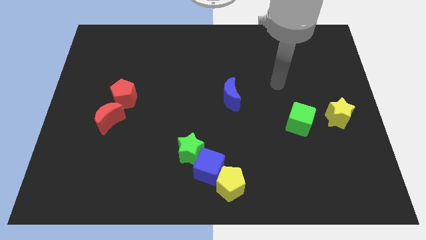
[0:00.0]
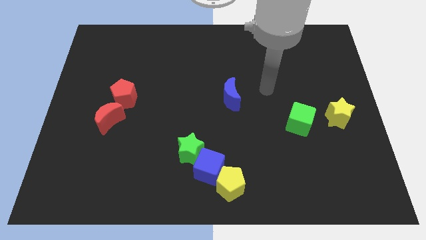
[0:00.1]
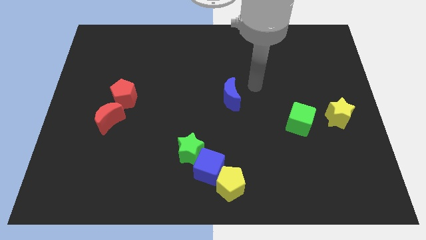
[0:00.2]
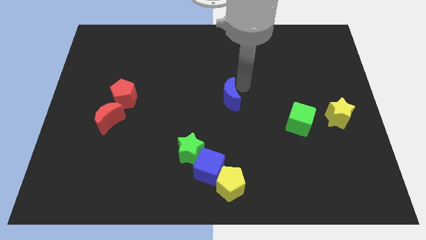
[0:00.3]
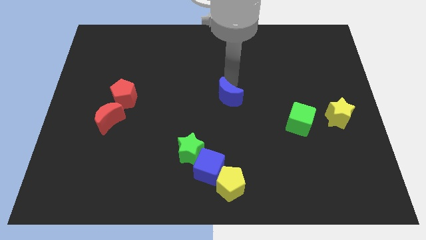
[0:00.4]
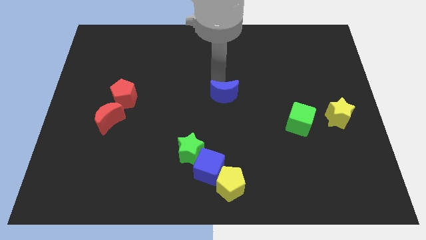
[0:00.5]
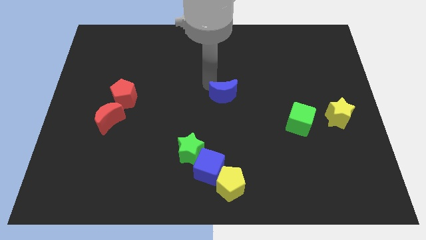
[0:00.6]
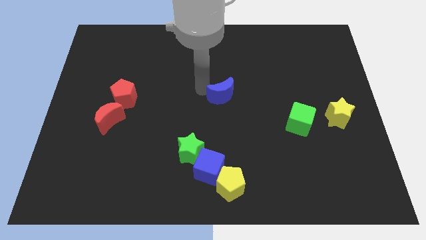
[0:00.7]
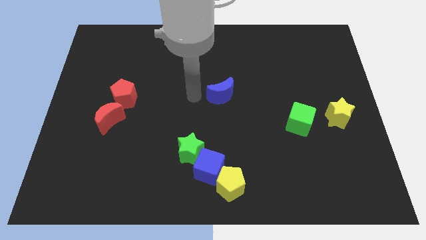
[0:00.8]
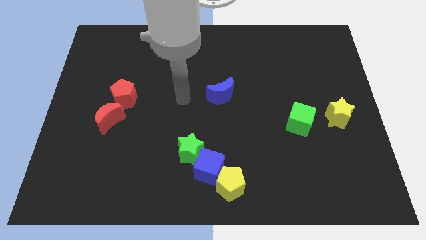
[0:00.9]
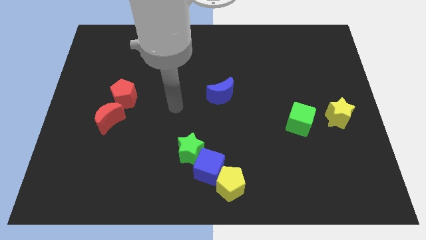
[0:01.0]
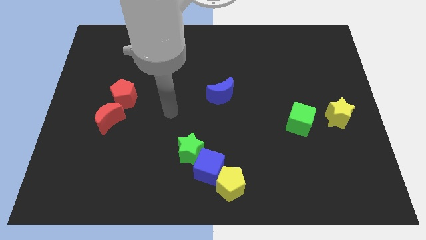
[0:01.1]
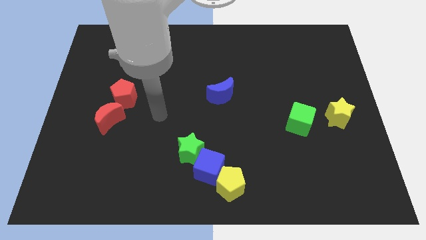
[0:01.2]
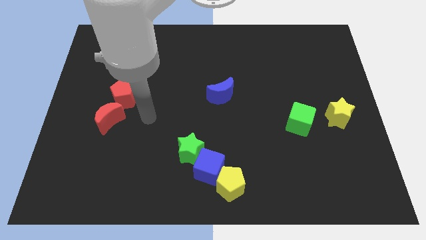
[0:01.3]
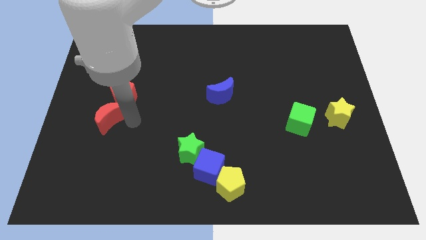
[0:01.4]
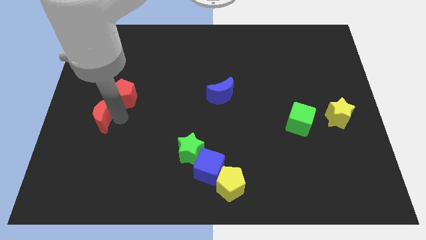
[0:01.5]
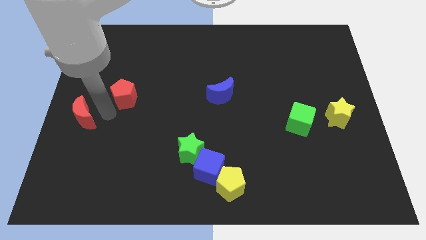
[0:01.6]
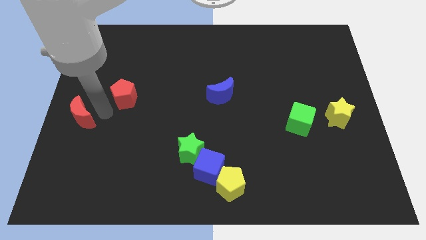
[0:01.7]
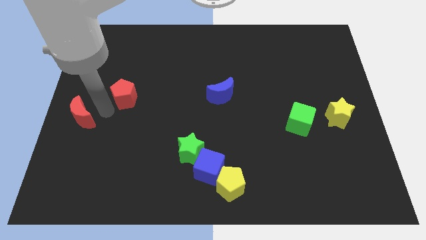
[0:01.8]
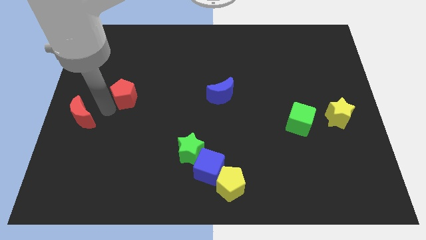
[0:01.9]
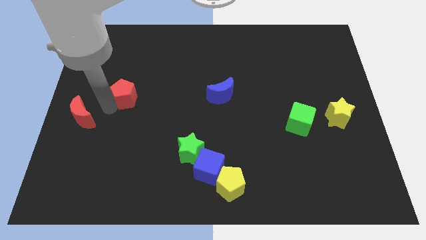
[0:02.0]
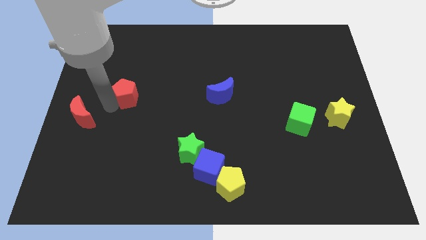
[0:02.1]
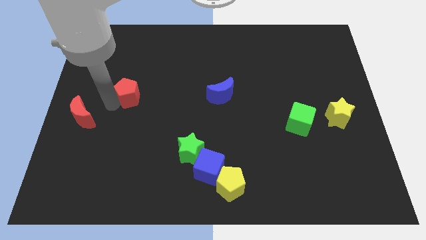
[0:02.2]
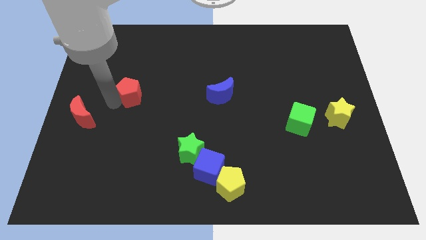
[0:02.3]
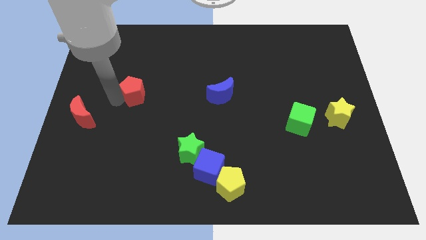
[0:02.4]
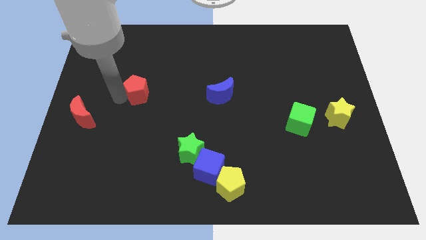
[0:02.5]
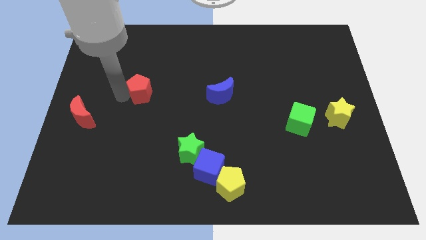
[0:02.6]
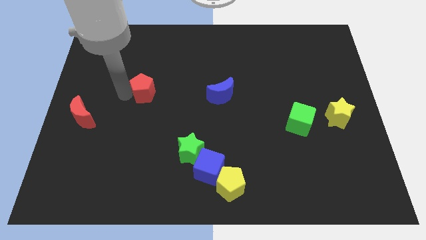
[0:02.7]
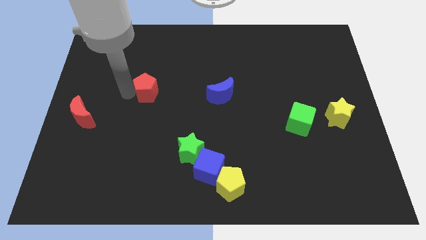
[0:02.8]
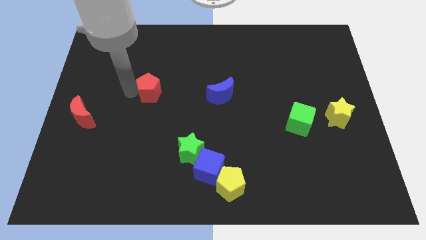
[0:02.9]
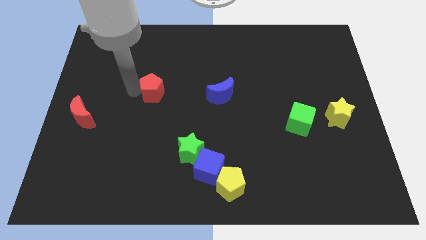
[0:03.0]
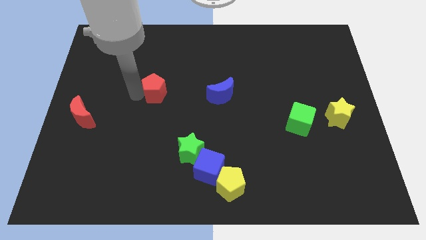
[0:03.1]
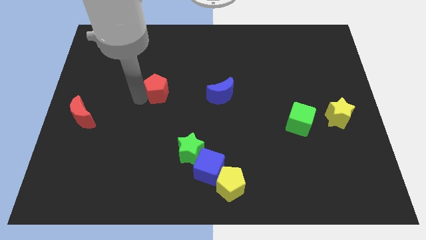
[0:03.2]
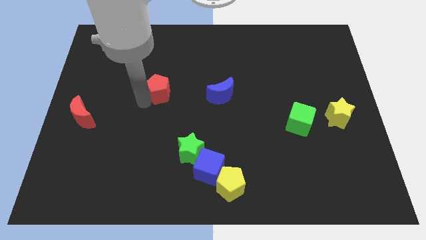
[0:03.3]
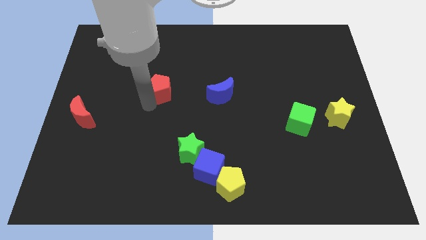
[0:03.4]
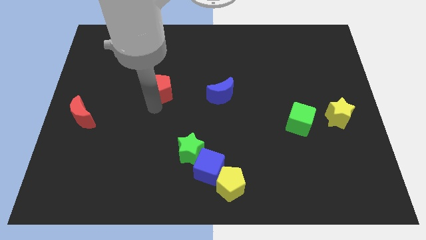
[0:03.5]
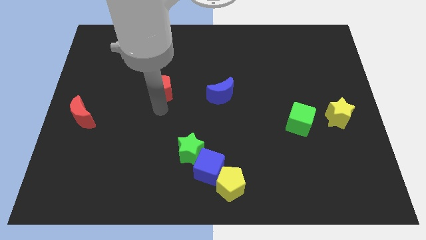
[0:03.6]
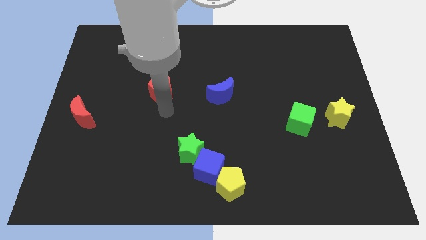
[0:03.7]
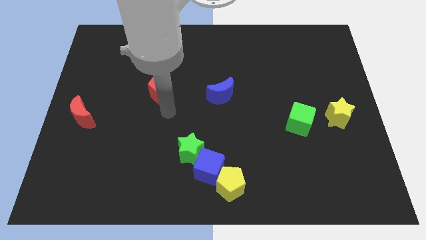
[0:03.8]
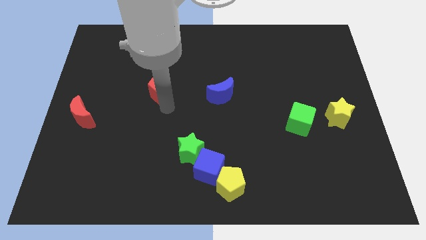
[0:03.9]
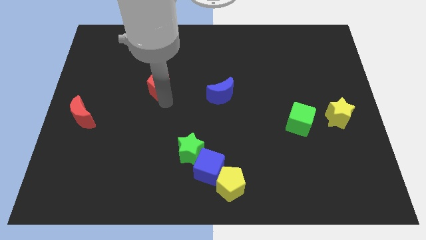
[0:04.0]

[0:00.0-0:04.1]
slightly push the red pentagon diagonally upwards and right

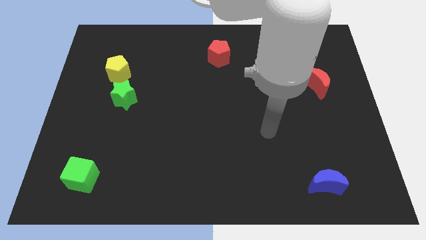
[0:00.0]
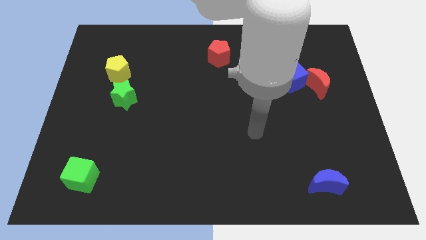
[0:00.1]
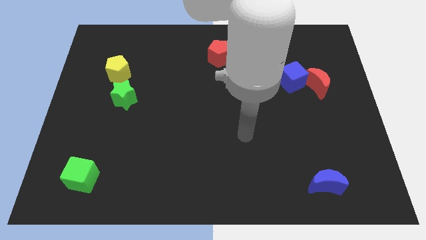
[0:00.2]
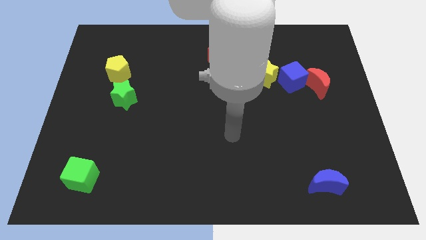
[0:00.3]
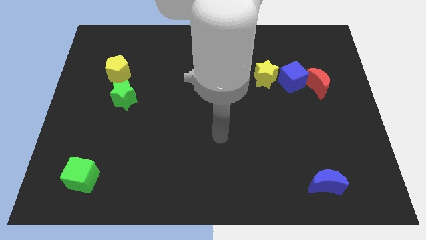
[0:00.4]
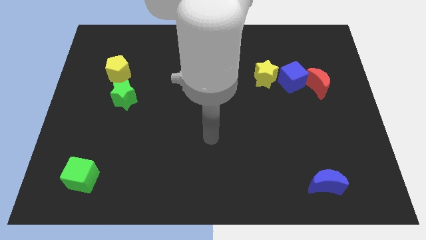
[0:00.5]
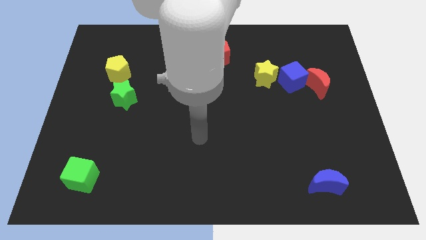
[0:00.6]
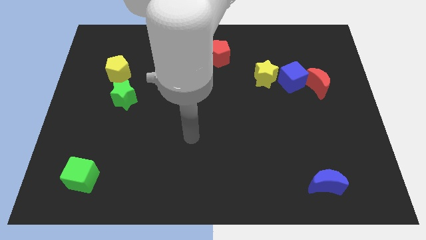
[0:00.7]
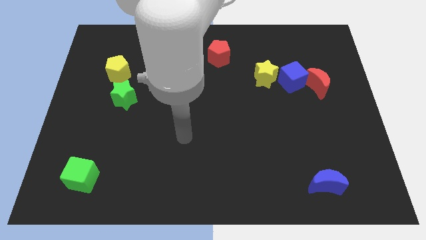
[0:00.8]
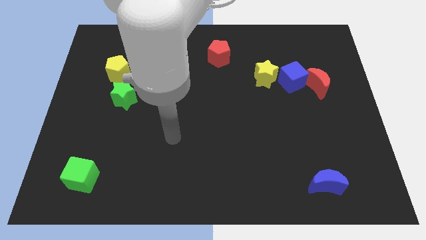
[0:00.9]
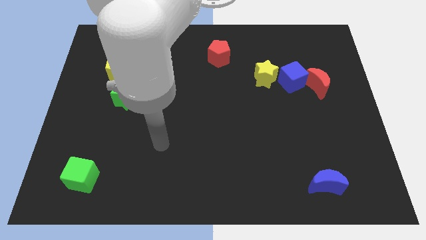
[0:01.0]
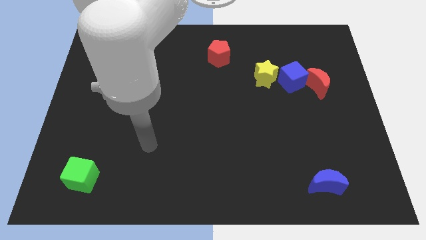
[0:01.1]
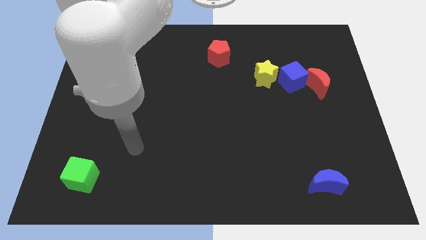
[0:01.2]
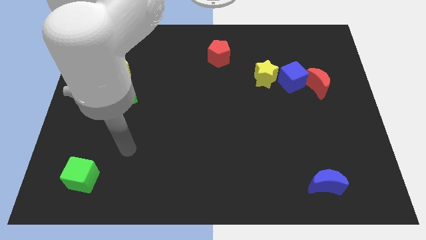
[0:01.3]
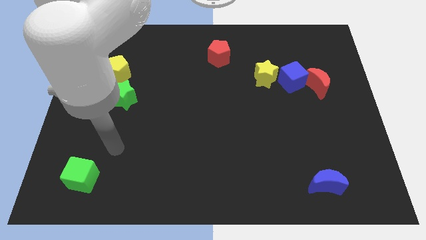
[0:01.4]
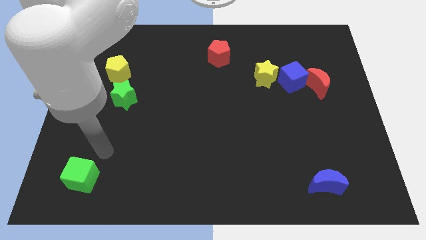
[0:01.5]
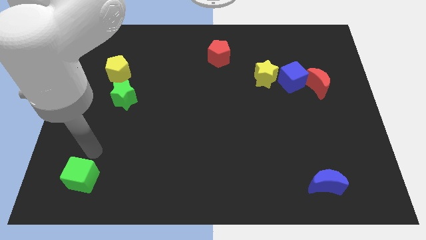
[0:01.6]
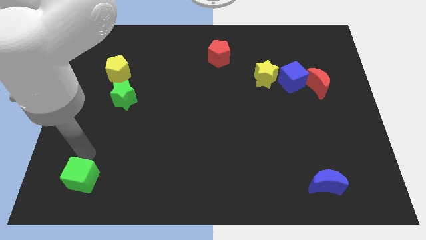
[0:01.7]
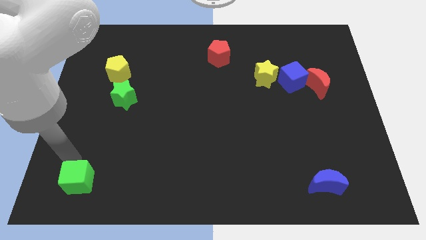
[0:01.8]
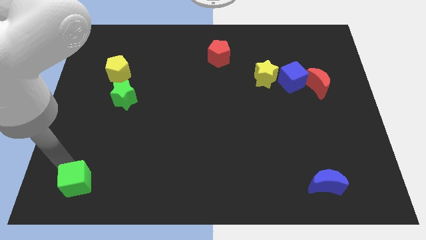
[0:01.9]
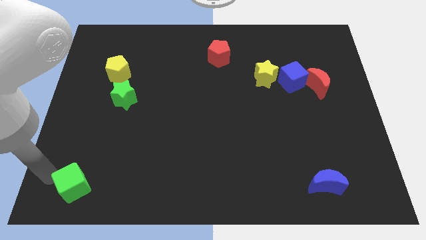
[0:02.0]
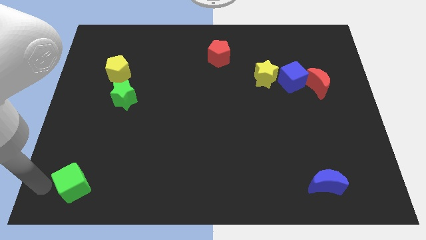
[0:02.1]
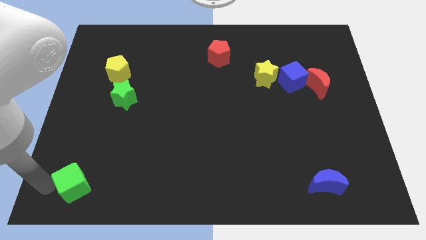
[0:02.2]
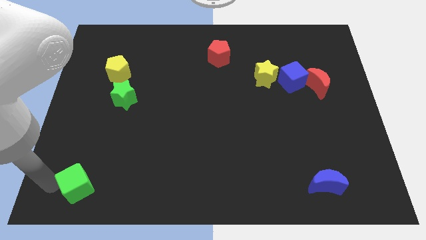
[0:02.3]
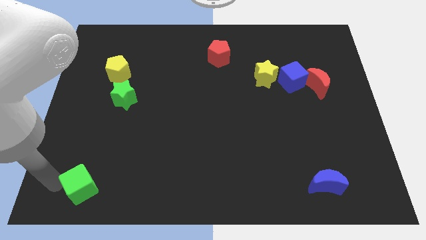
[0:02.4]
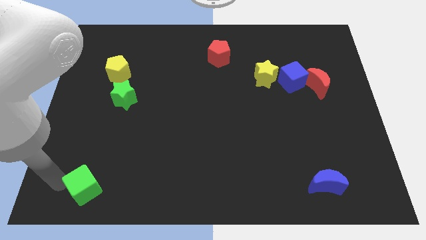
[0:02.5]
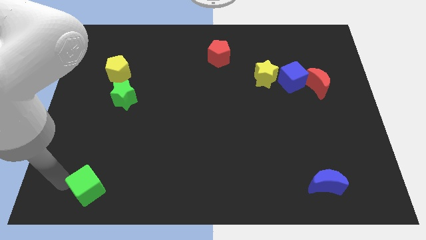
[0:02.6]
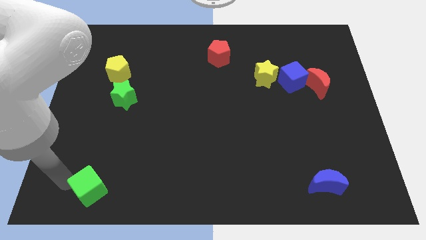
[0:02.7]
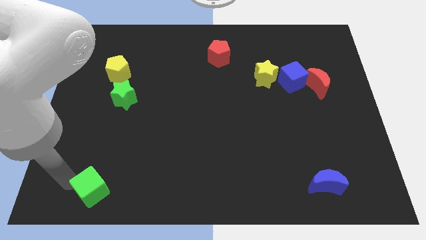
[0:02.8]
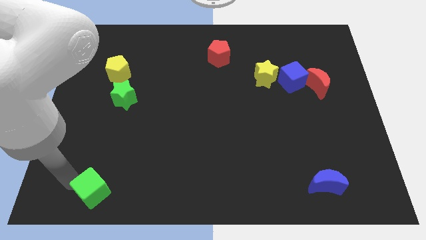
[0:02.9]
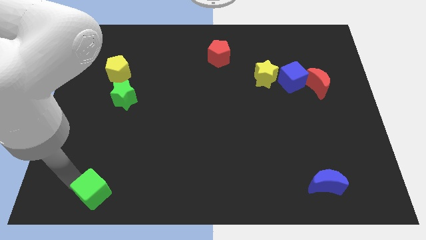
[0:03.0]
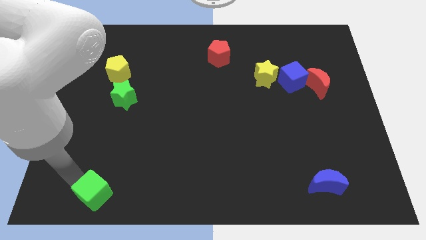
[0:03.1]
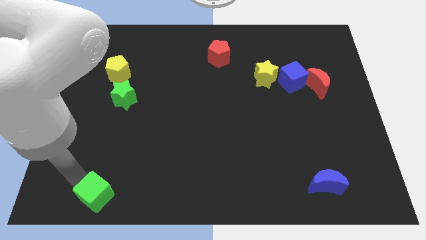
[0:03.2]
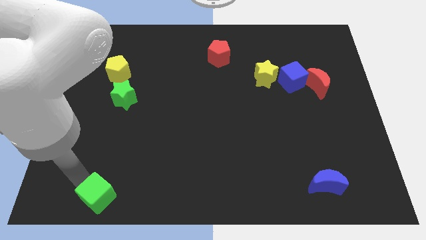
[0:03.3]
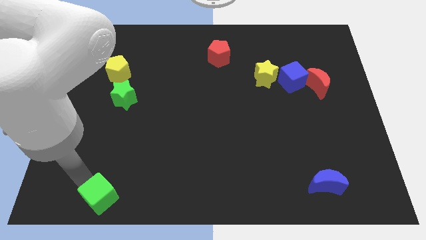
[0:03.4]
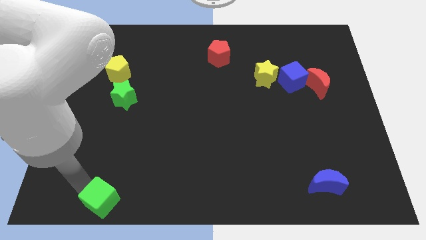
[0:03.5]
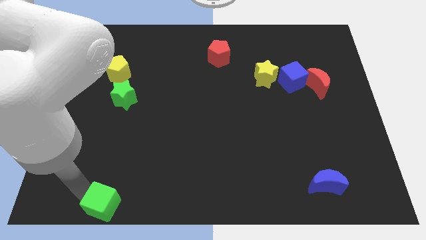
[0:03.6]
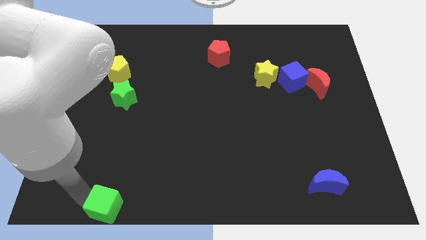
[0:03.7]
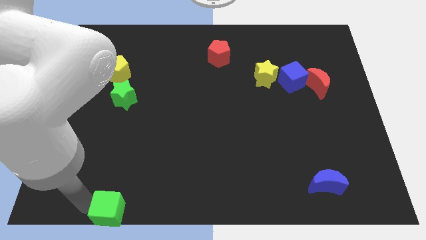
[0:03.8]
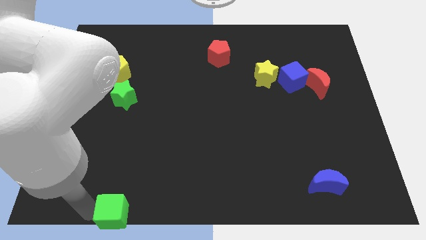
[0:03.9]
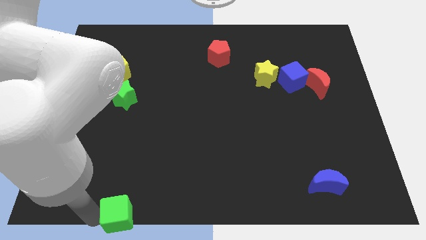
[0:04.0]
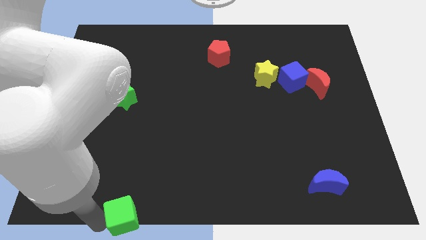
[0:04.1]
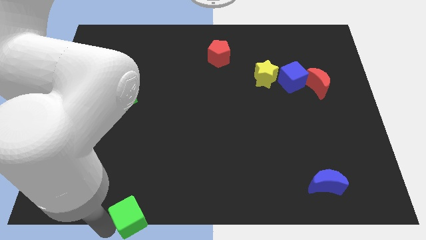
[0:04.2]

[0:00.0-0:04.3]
move the green cube right a bit
